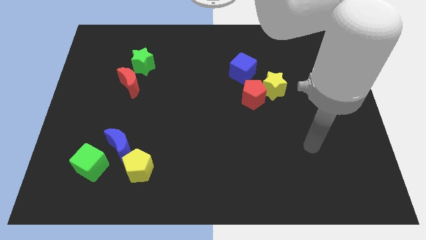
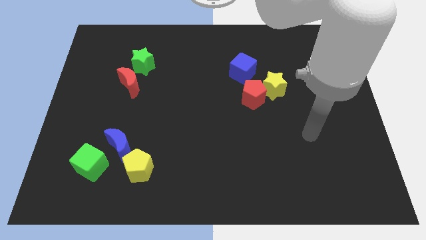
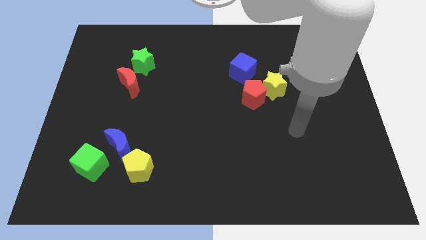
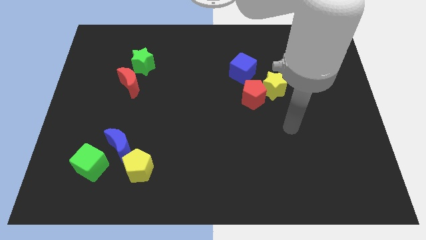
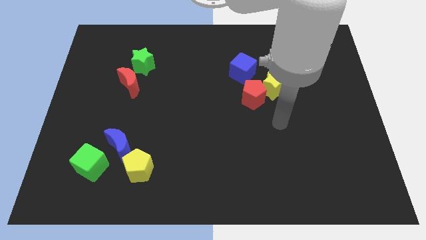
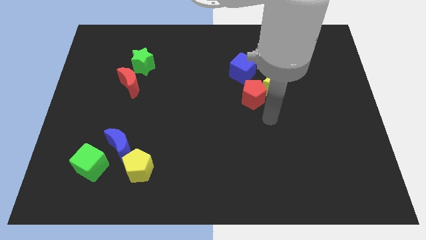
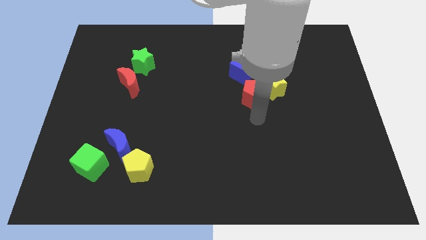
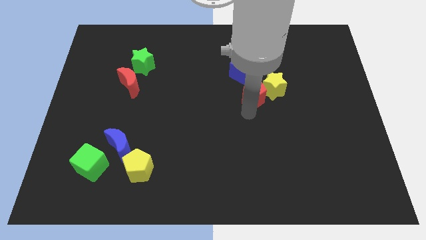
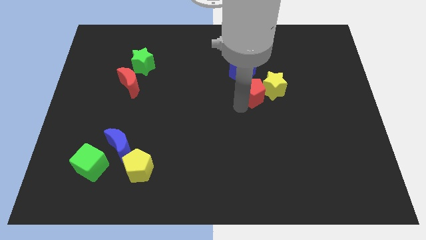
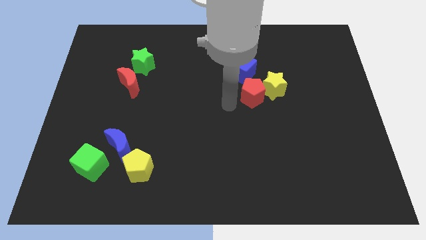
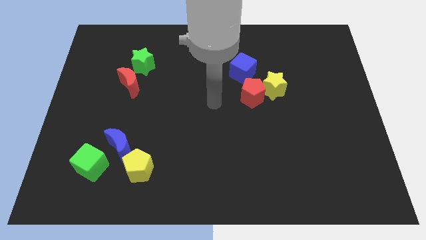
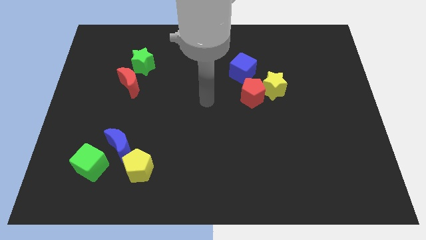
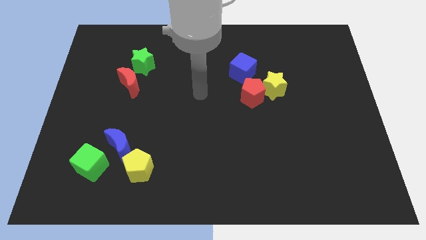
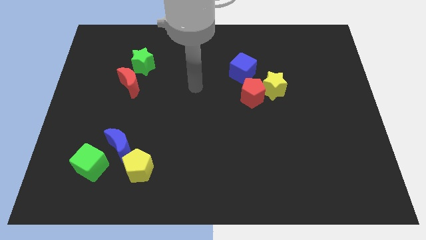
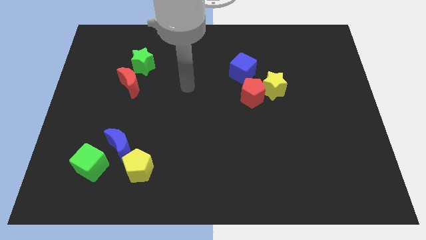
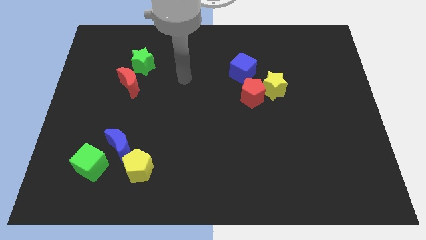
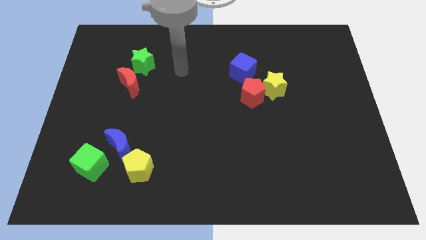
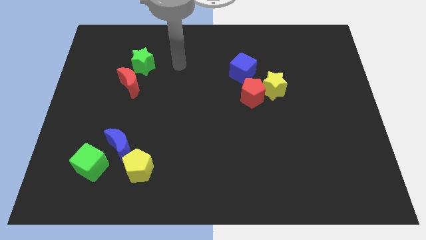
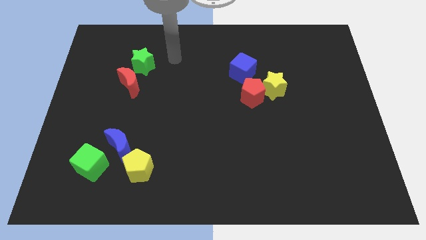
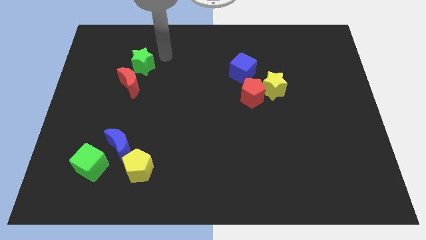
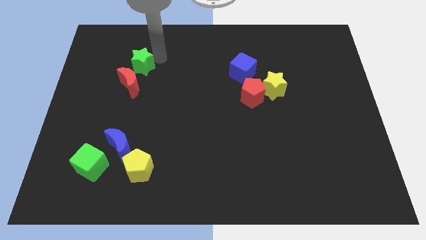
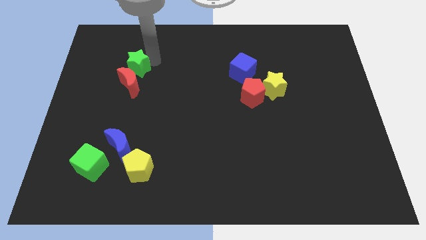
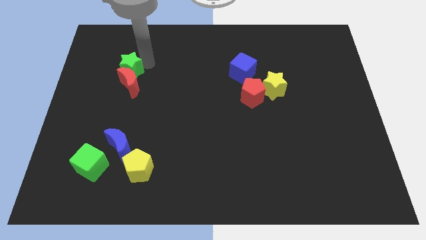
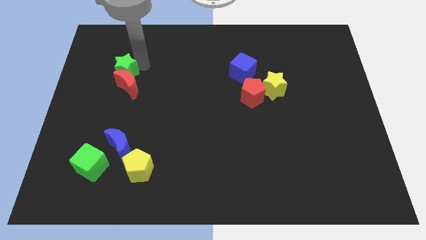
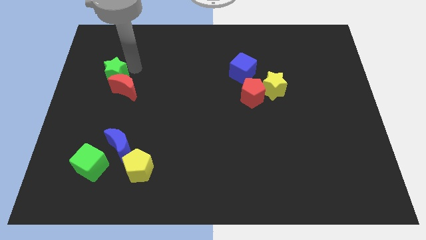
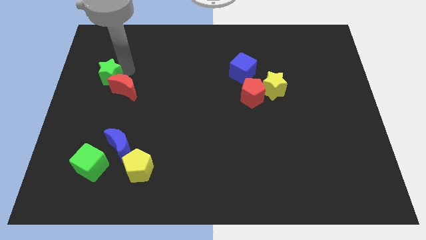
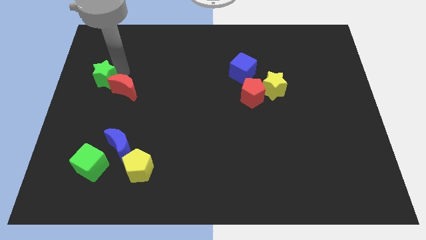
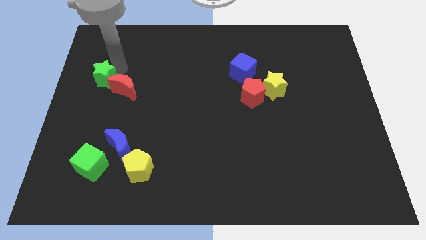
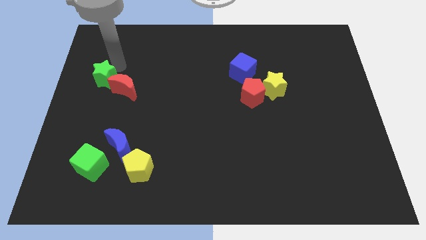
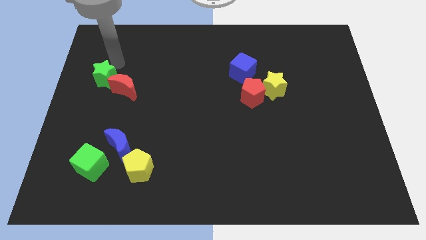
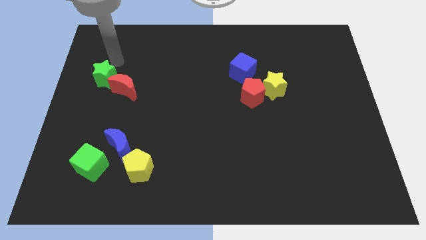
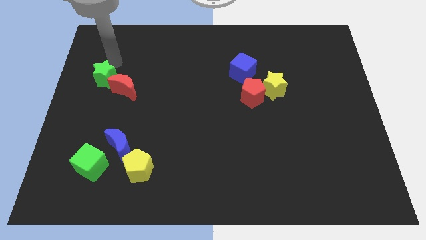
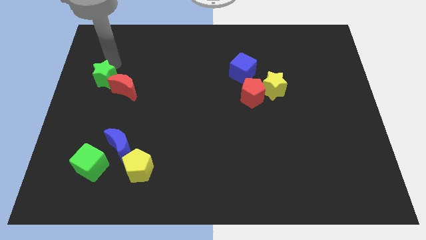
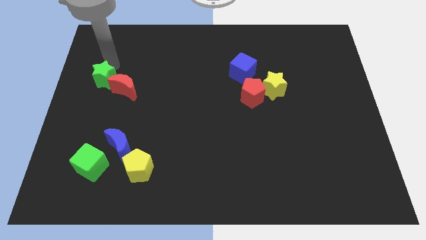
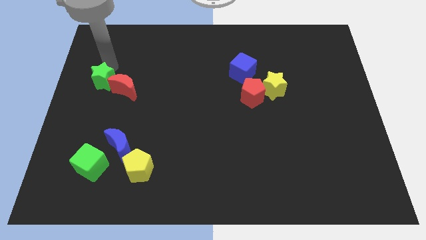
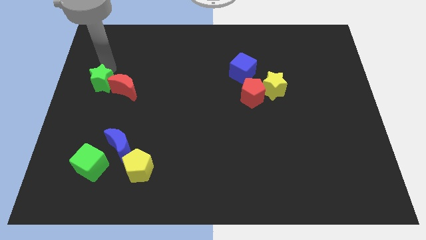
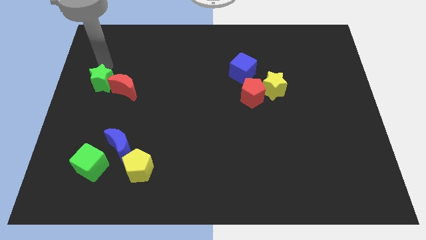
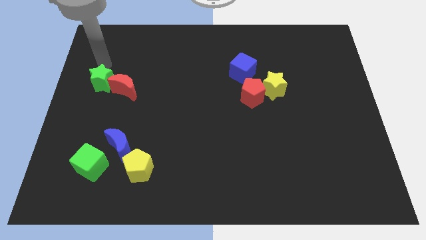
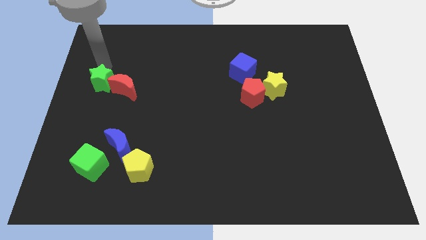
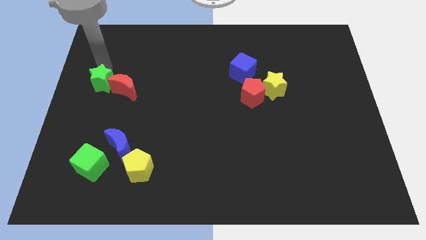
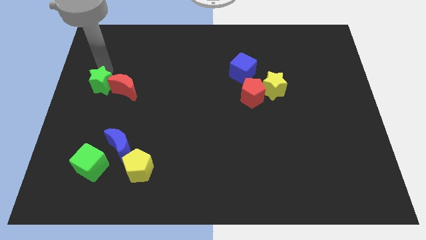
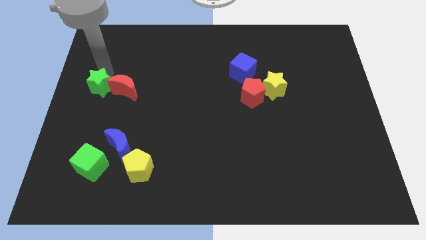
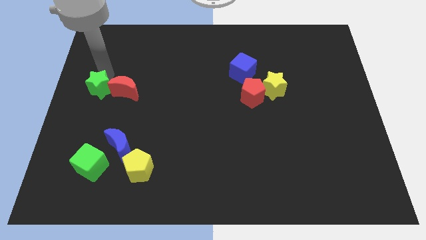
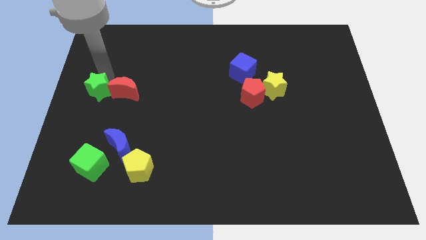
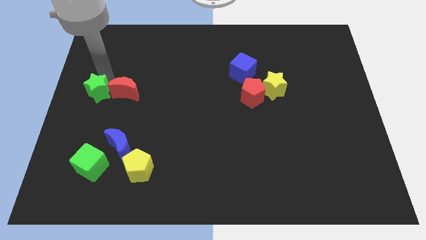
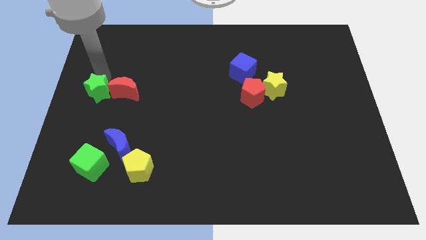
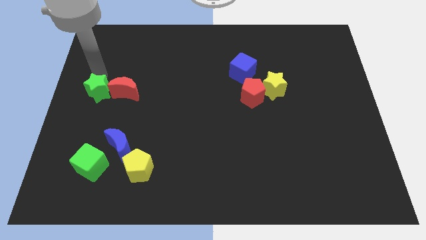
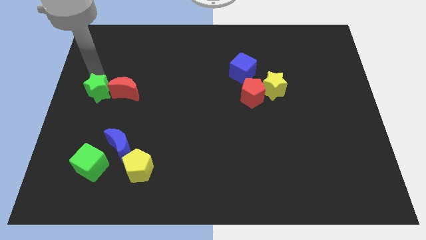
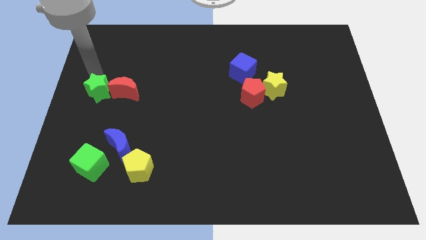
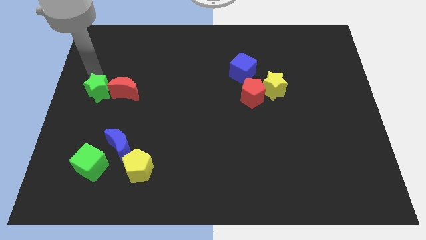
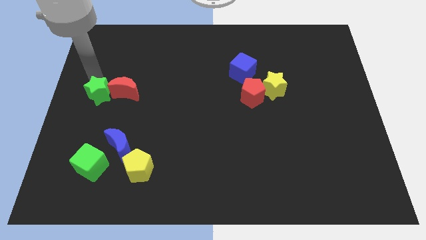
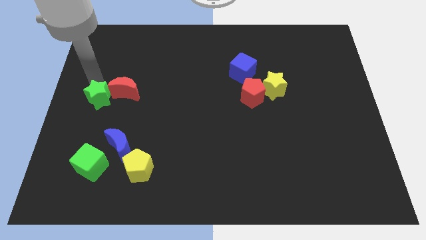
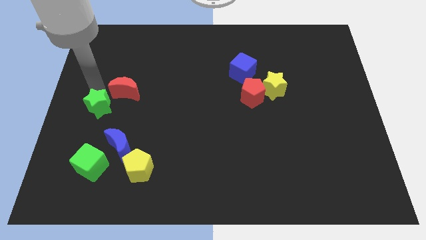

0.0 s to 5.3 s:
push the green star to the top of the green cube

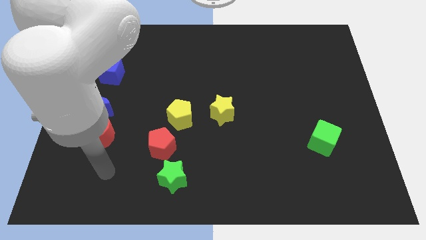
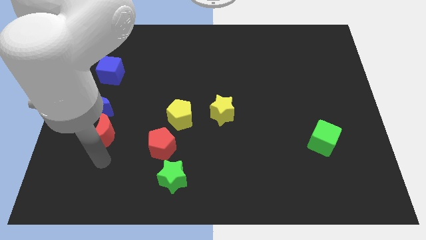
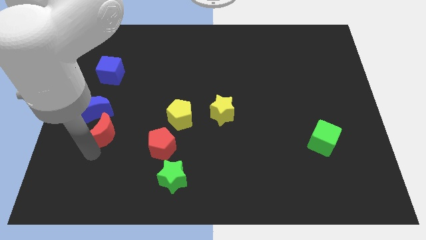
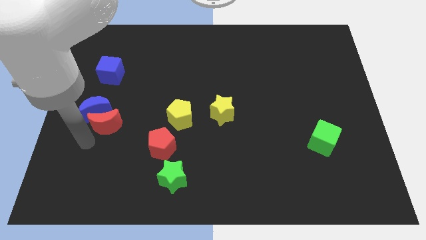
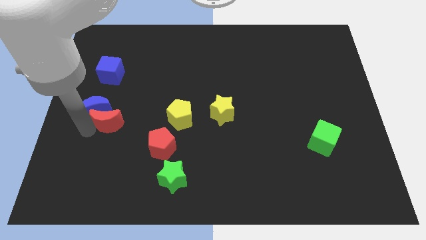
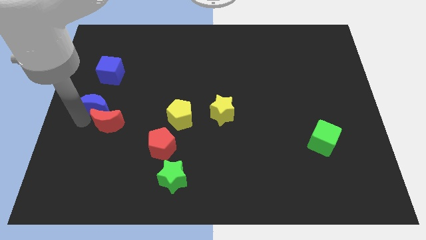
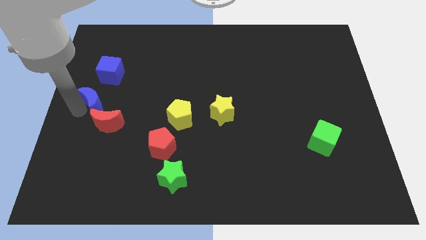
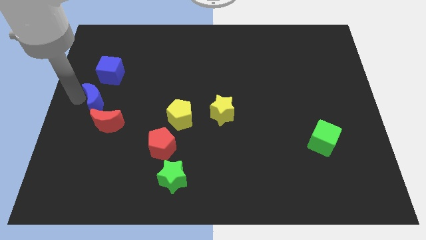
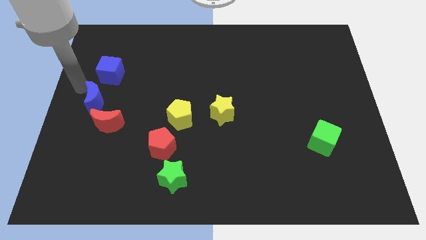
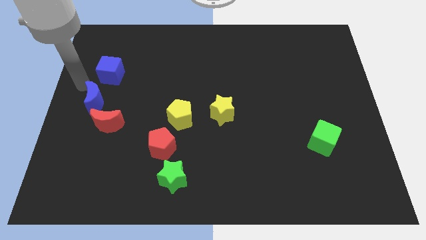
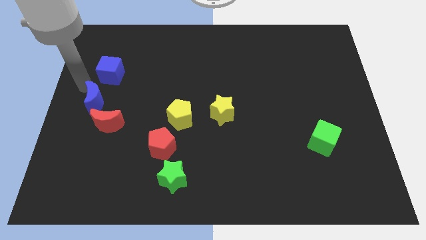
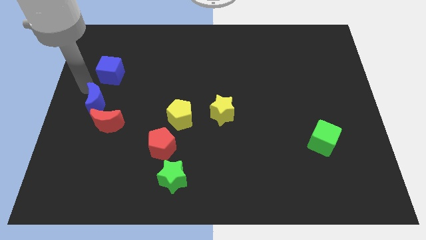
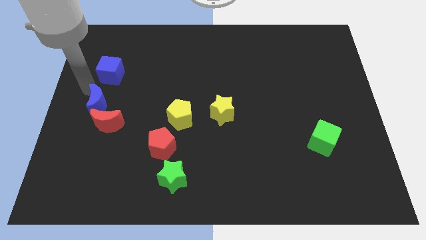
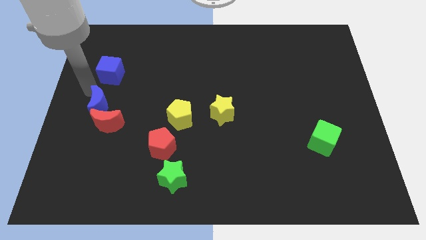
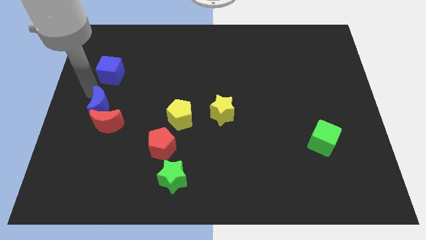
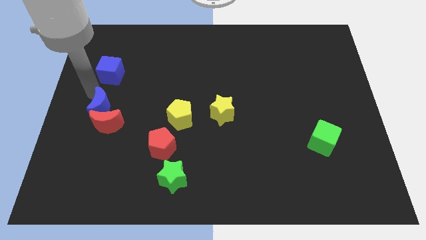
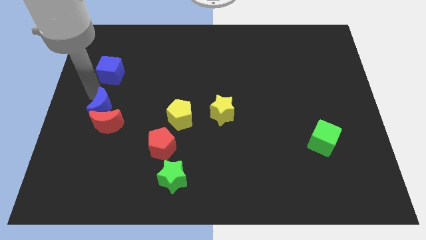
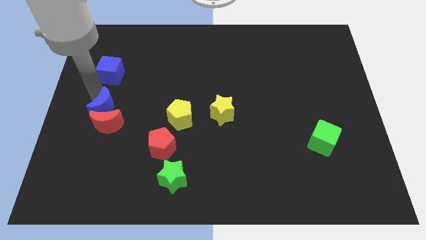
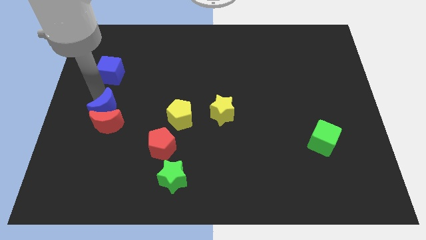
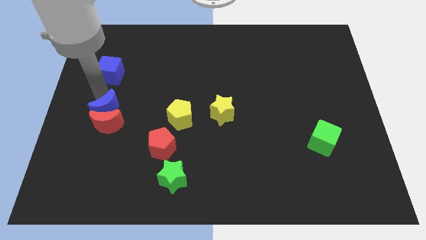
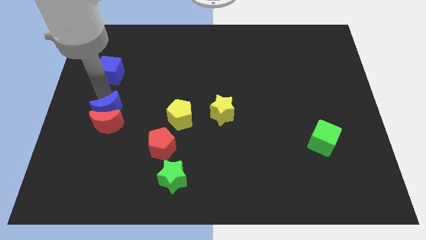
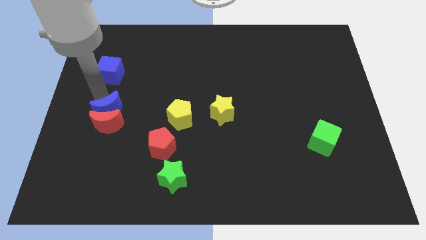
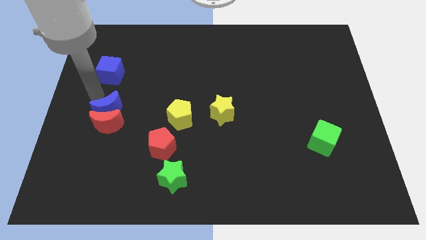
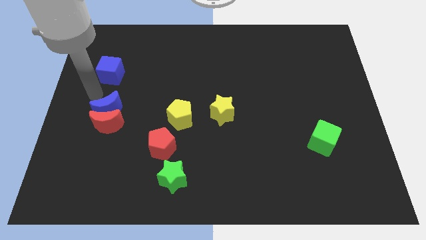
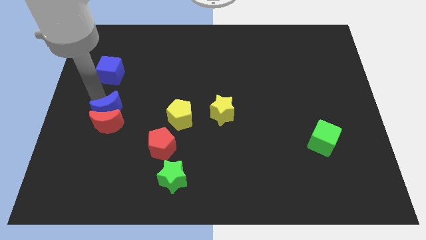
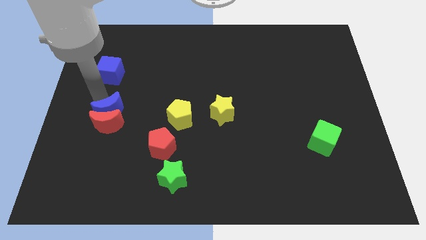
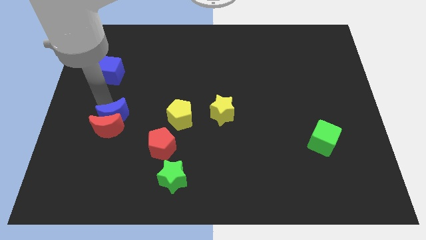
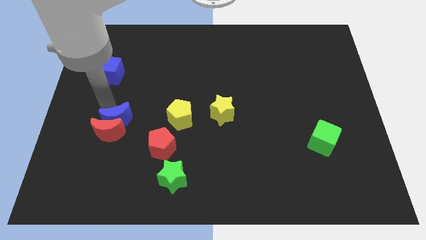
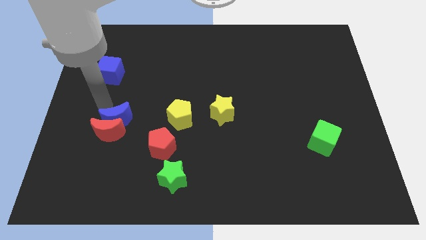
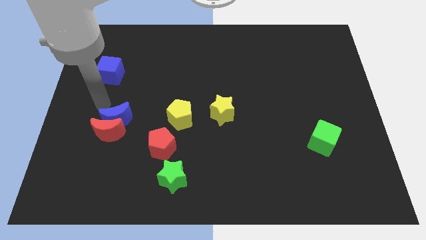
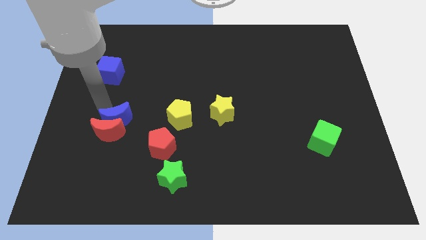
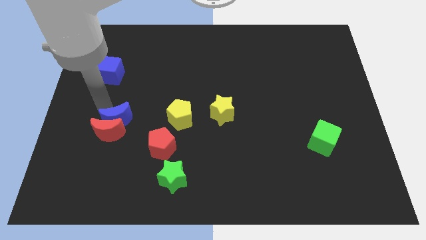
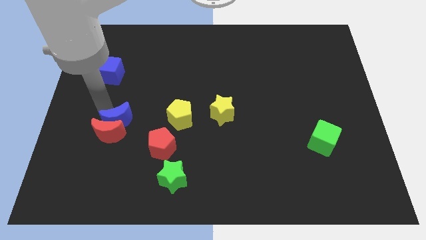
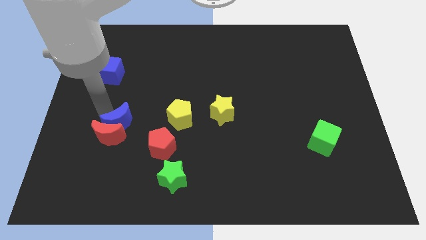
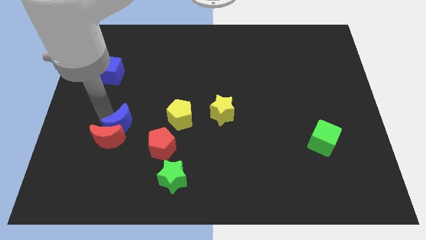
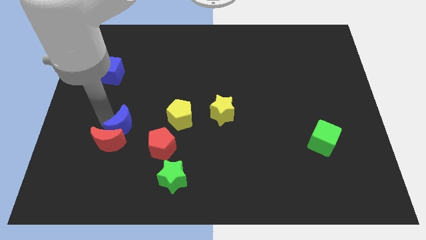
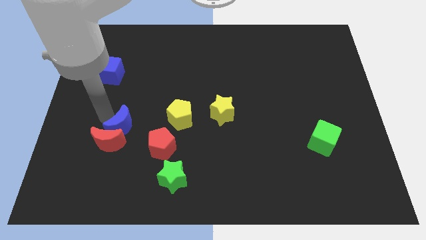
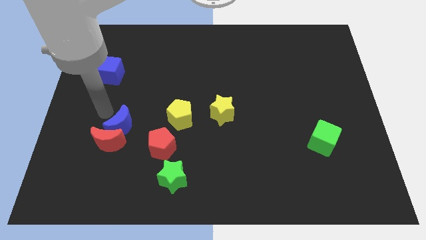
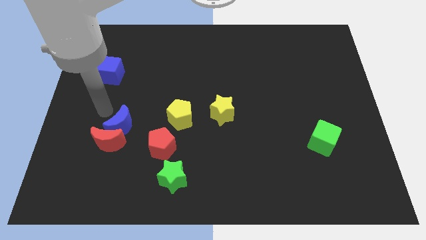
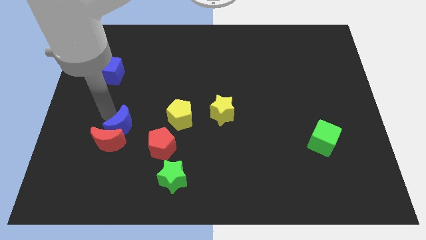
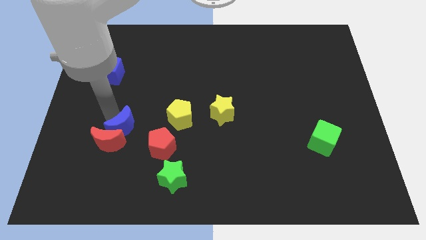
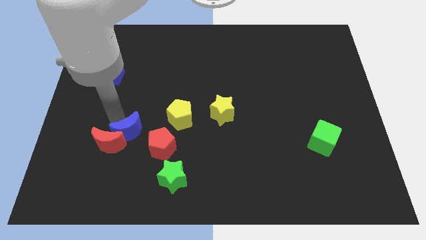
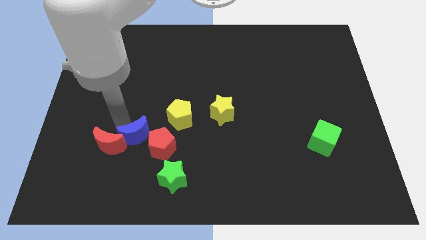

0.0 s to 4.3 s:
push the blue moon to the bottom left of the yellow pentagon
